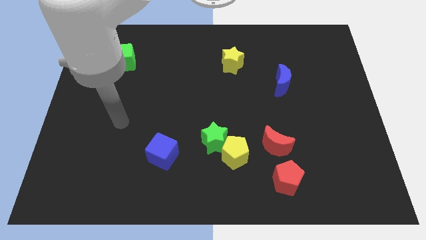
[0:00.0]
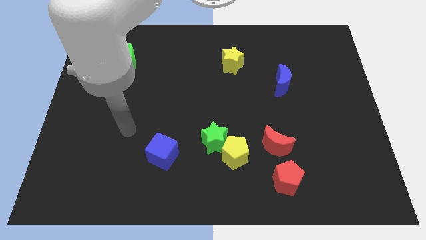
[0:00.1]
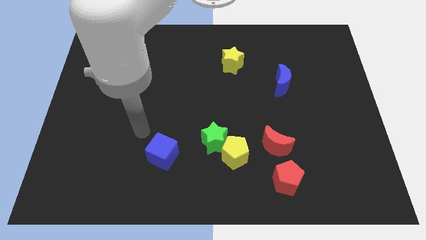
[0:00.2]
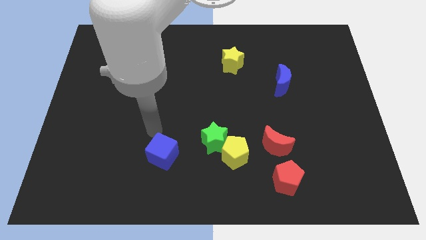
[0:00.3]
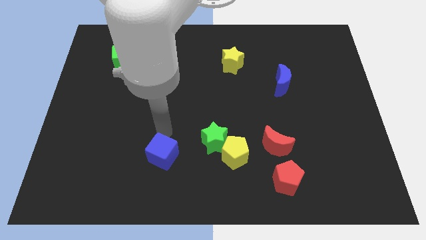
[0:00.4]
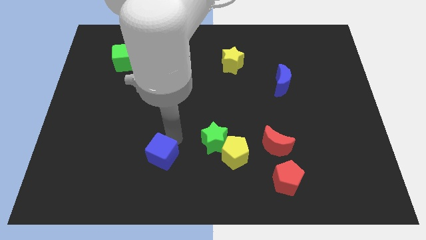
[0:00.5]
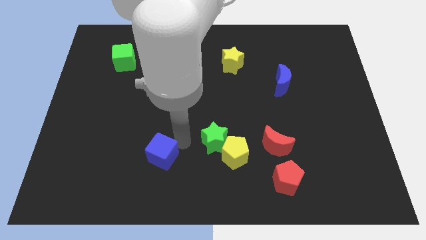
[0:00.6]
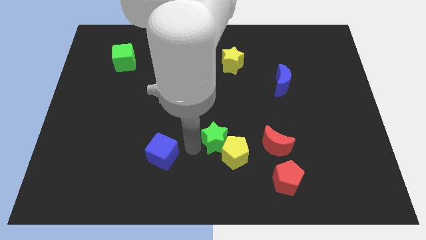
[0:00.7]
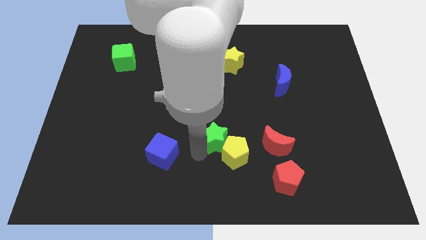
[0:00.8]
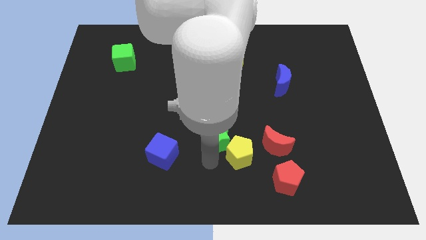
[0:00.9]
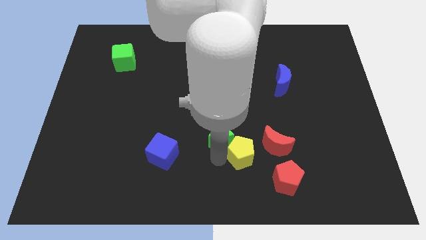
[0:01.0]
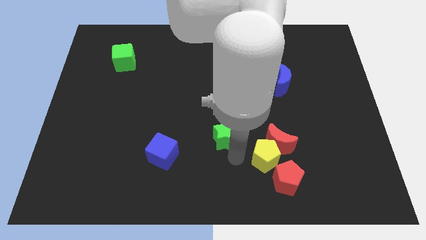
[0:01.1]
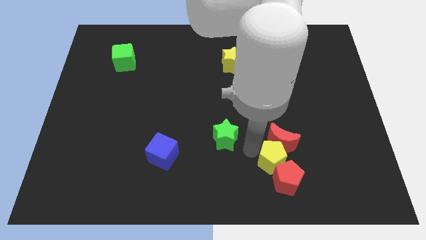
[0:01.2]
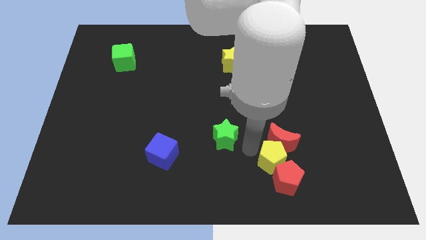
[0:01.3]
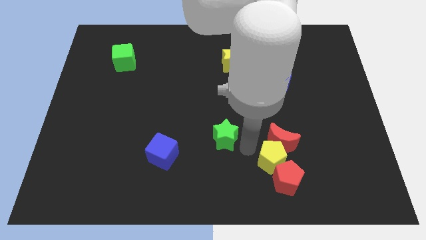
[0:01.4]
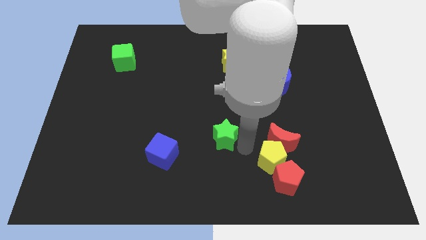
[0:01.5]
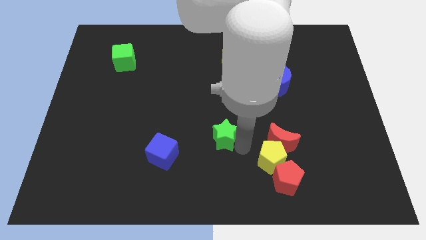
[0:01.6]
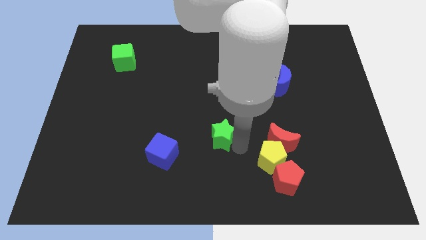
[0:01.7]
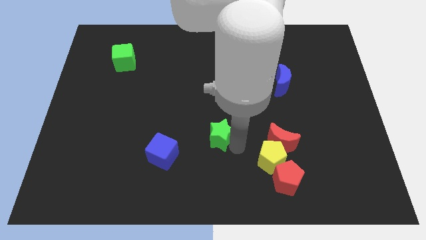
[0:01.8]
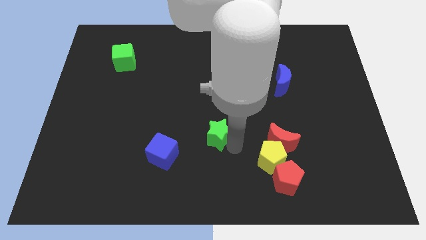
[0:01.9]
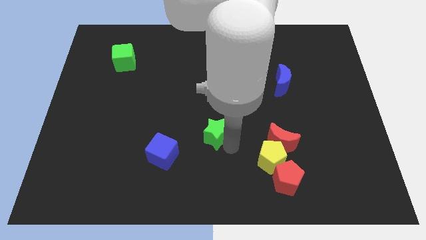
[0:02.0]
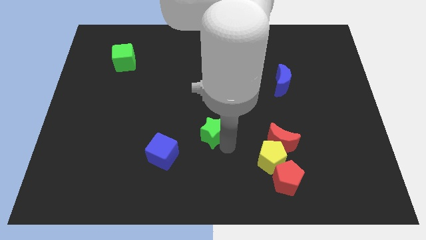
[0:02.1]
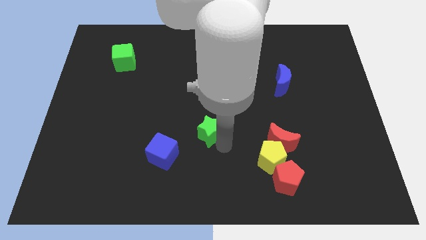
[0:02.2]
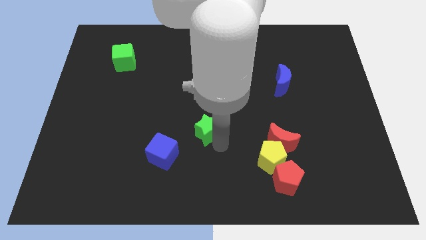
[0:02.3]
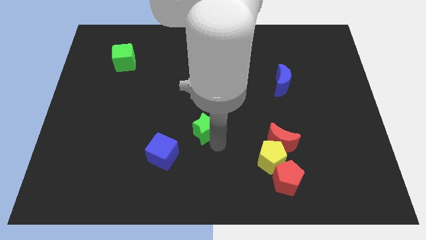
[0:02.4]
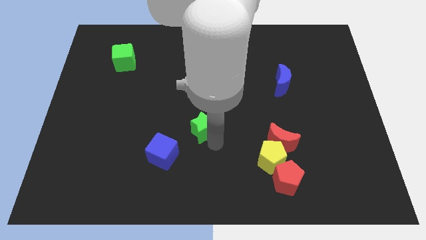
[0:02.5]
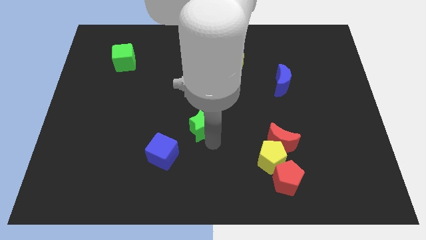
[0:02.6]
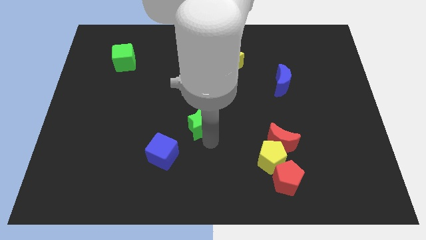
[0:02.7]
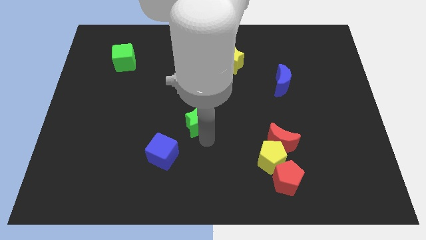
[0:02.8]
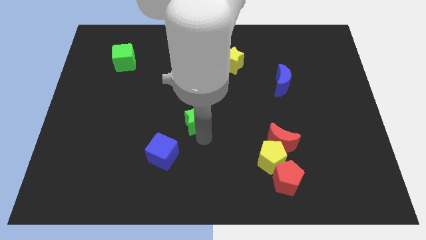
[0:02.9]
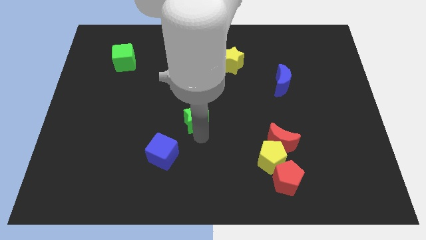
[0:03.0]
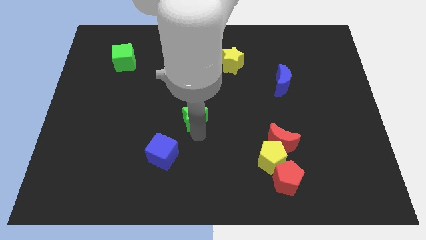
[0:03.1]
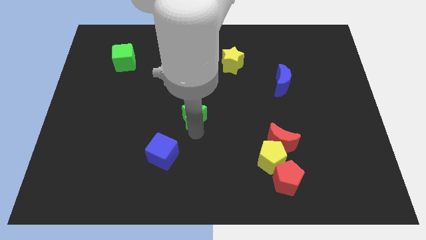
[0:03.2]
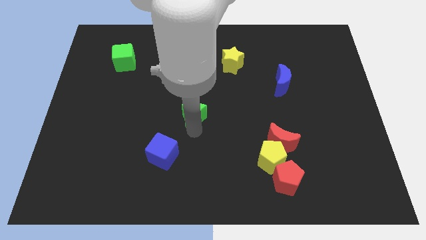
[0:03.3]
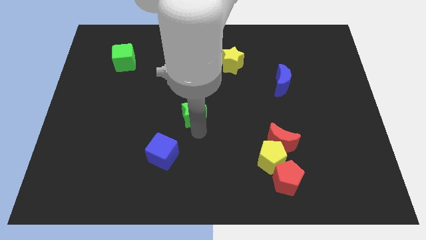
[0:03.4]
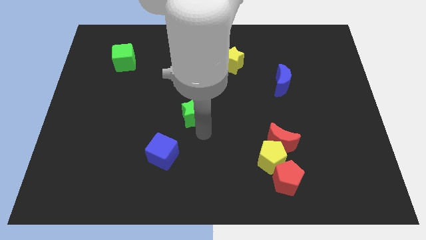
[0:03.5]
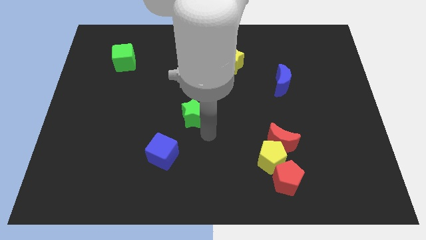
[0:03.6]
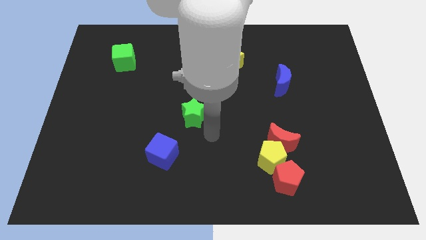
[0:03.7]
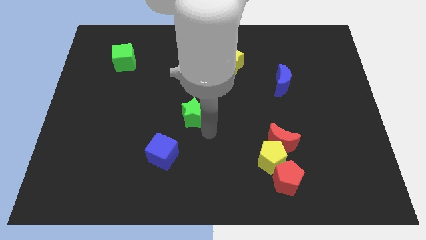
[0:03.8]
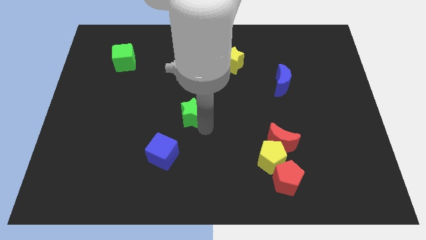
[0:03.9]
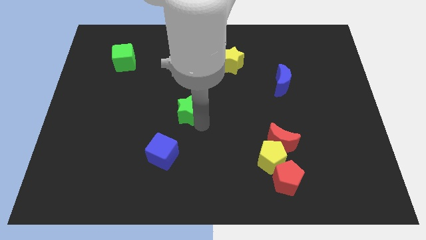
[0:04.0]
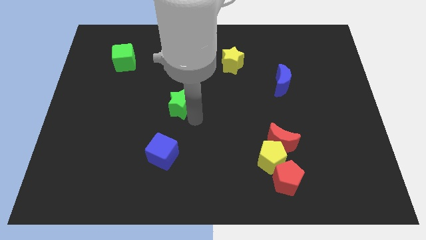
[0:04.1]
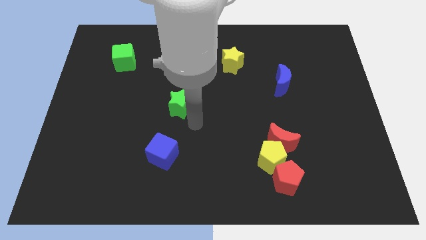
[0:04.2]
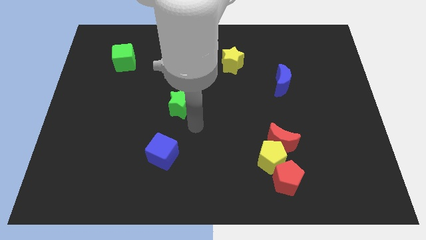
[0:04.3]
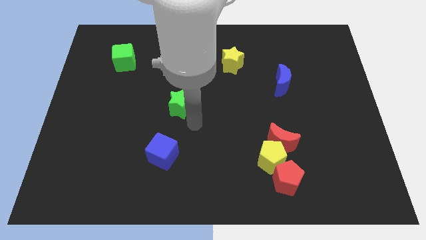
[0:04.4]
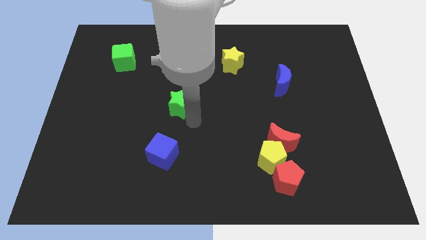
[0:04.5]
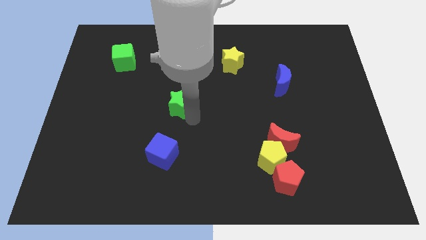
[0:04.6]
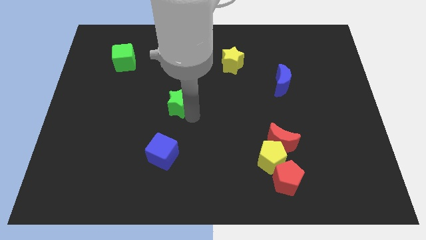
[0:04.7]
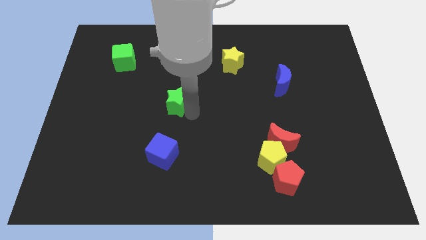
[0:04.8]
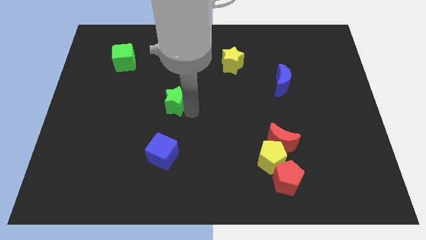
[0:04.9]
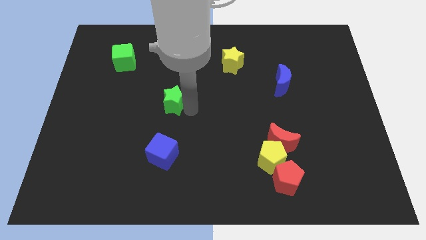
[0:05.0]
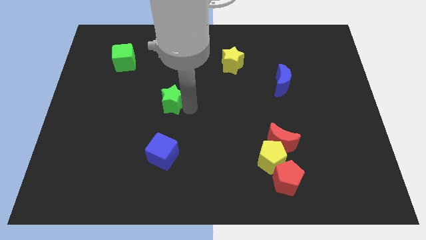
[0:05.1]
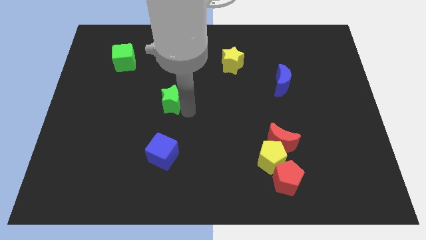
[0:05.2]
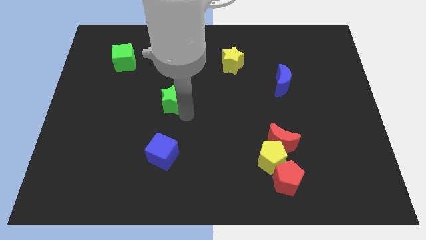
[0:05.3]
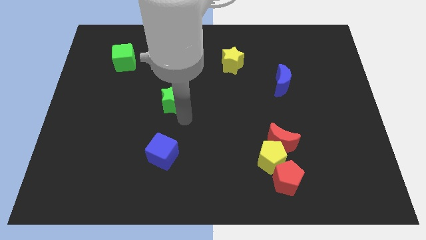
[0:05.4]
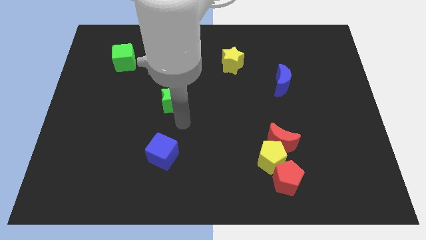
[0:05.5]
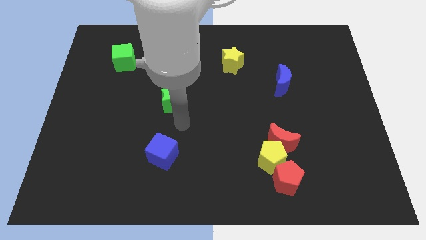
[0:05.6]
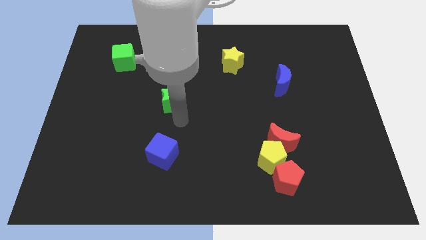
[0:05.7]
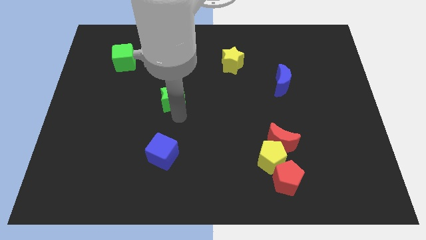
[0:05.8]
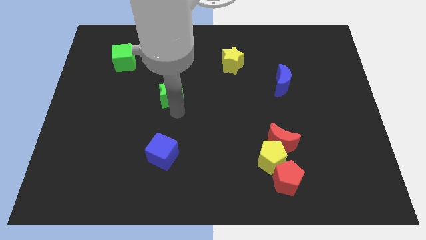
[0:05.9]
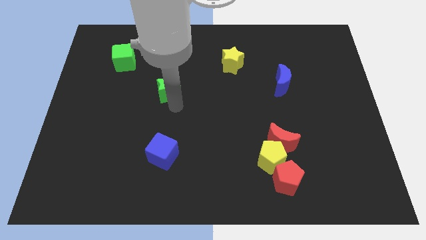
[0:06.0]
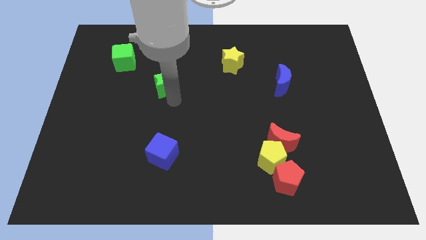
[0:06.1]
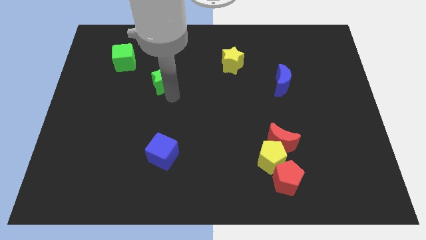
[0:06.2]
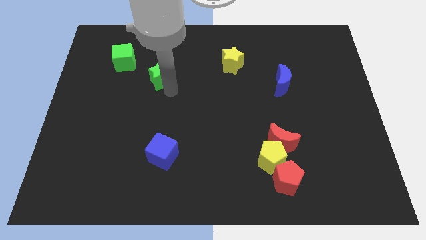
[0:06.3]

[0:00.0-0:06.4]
put the green star to the bottom right side of the green cube
